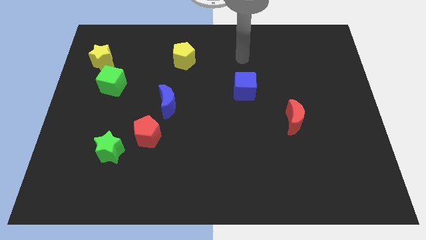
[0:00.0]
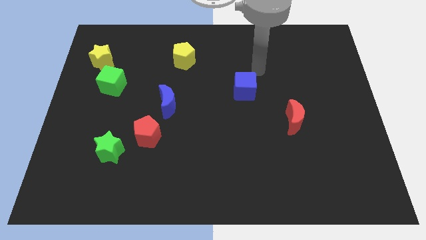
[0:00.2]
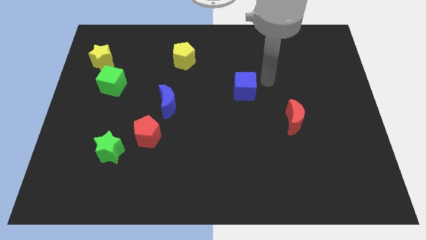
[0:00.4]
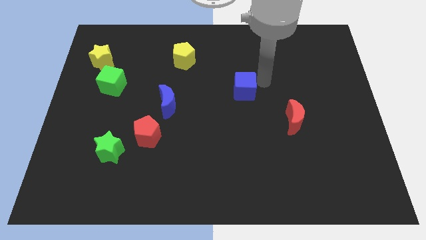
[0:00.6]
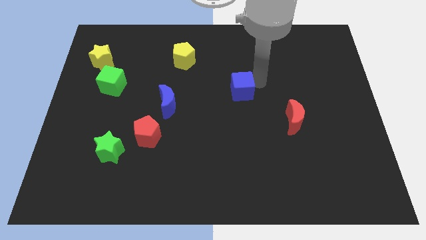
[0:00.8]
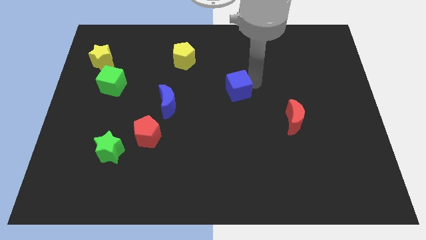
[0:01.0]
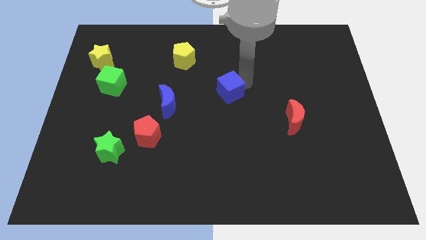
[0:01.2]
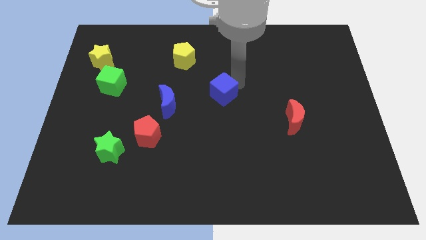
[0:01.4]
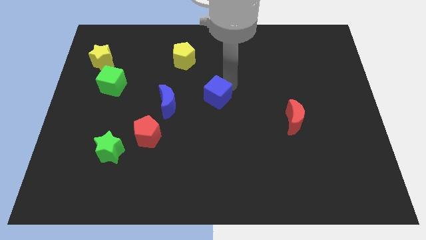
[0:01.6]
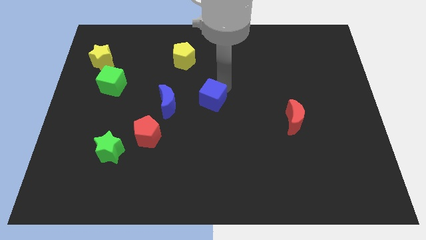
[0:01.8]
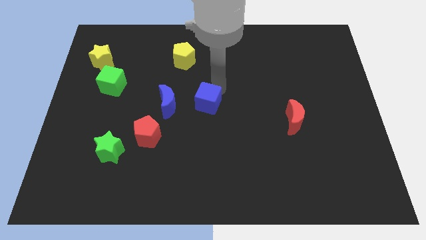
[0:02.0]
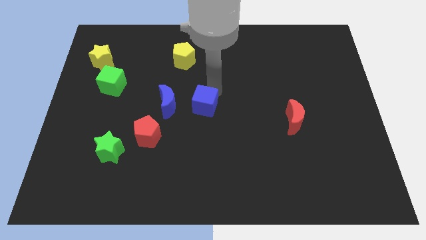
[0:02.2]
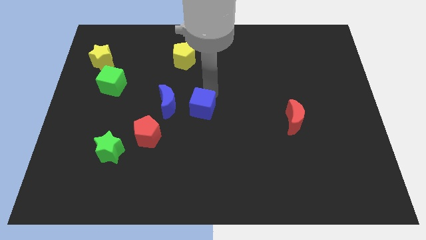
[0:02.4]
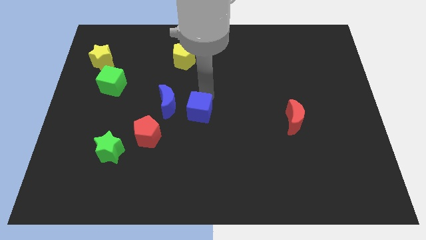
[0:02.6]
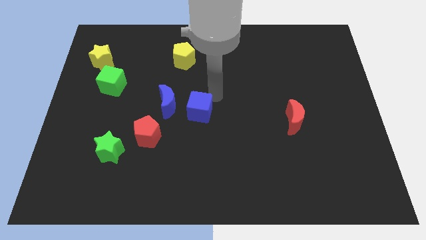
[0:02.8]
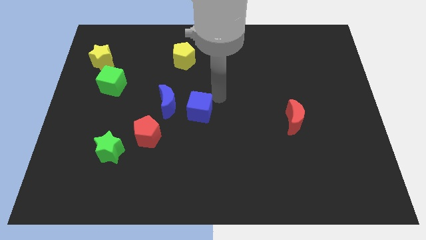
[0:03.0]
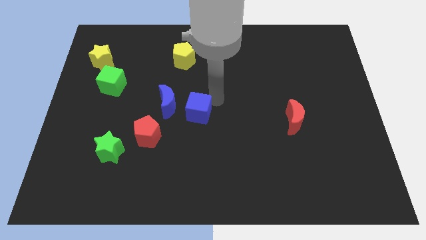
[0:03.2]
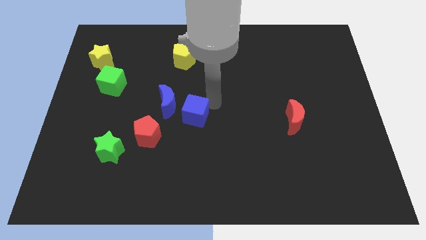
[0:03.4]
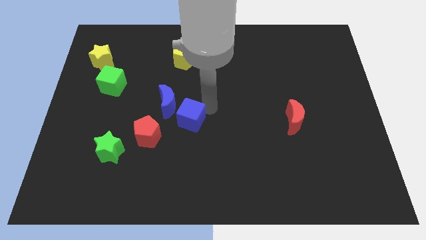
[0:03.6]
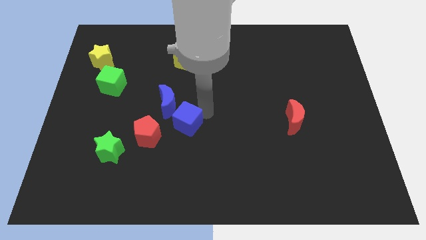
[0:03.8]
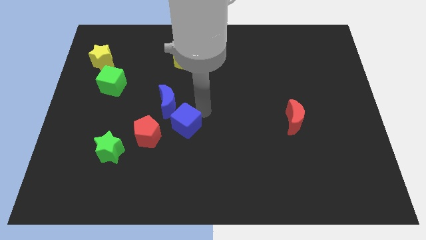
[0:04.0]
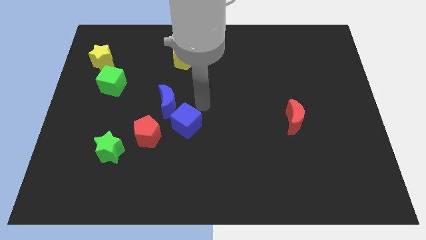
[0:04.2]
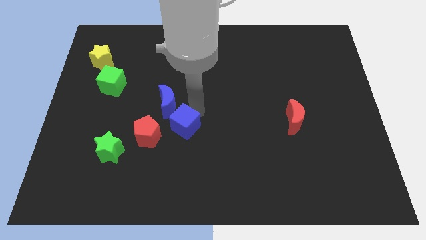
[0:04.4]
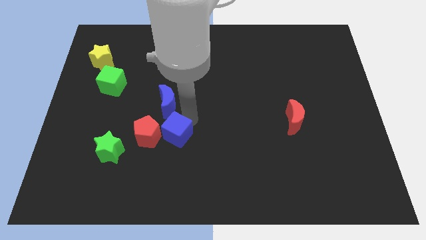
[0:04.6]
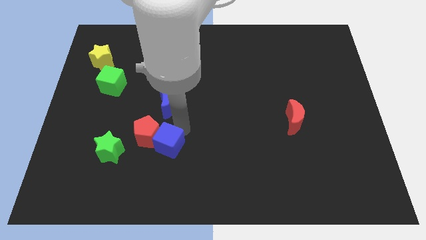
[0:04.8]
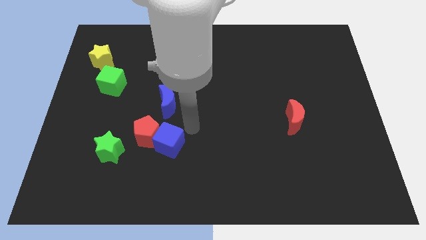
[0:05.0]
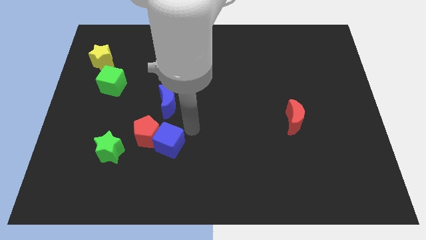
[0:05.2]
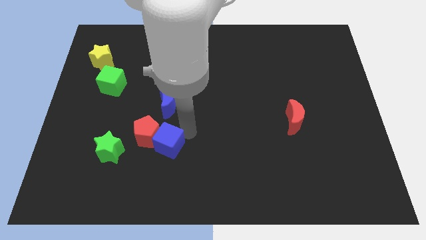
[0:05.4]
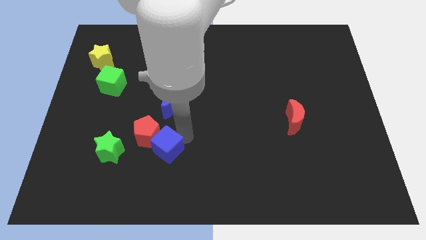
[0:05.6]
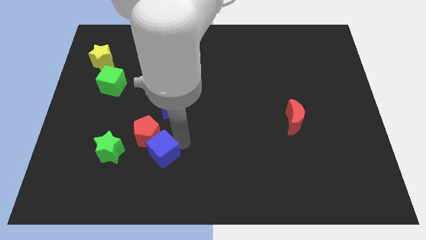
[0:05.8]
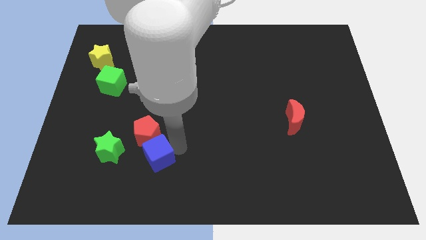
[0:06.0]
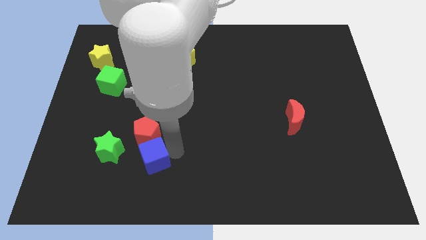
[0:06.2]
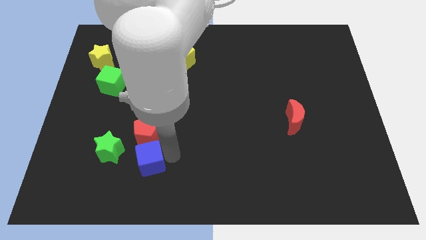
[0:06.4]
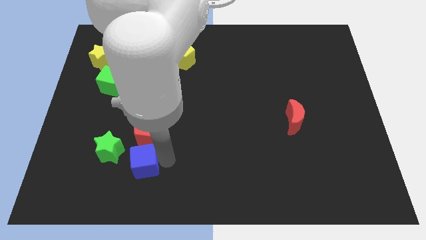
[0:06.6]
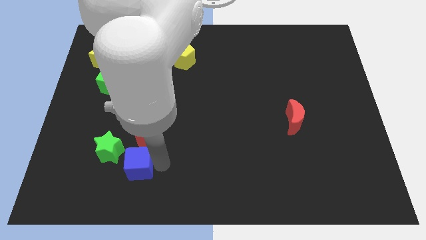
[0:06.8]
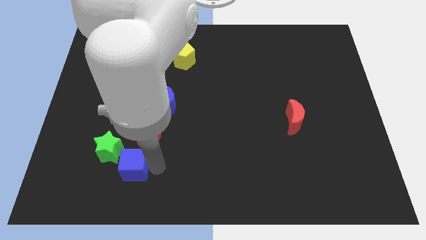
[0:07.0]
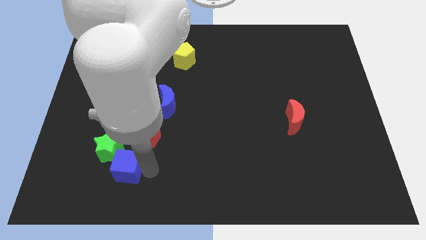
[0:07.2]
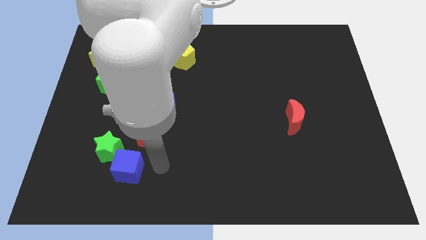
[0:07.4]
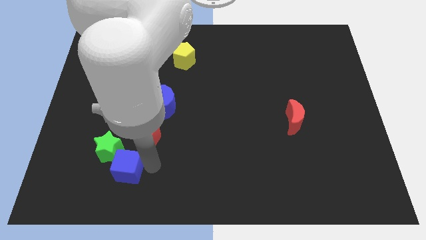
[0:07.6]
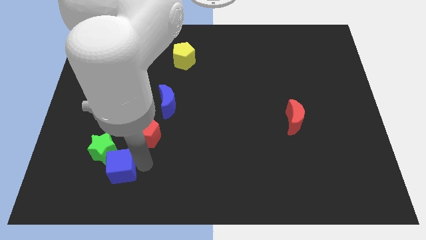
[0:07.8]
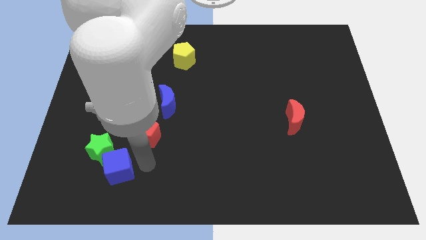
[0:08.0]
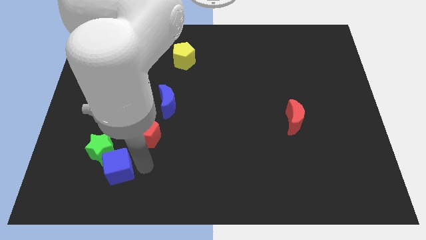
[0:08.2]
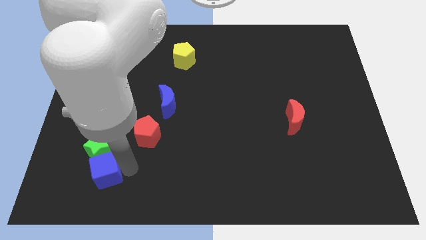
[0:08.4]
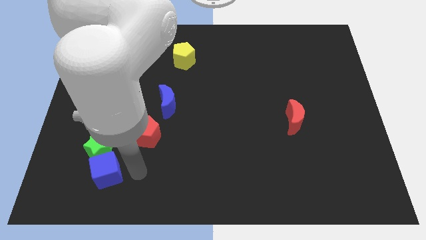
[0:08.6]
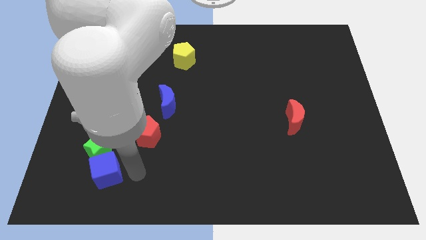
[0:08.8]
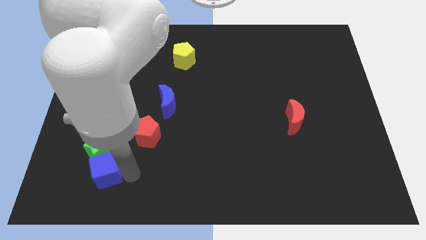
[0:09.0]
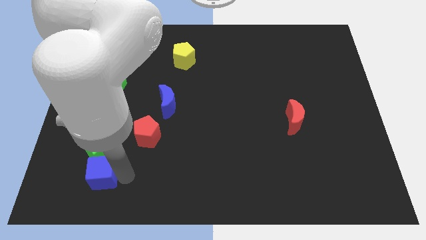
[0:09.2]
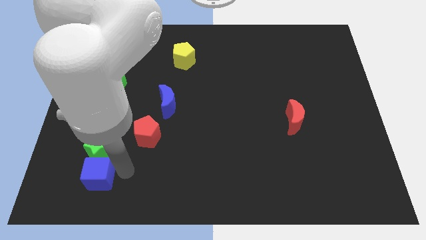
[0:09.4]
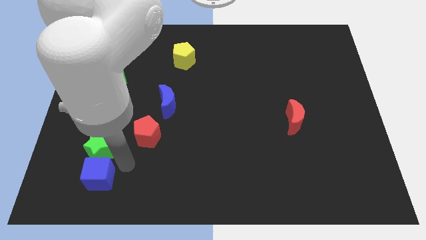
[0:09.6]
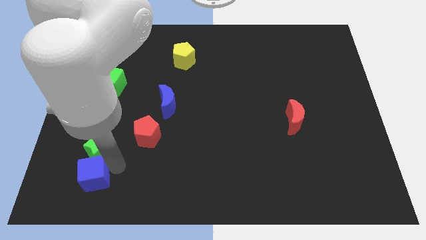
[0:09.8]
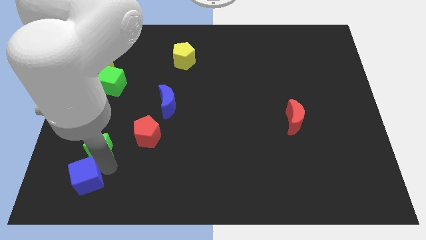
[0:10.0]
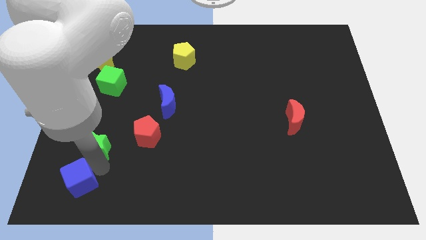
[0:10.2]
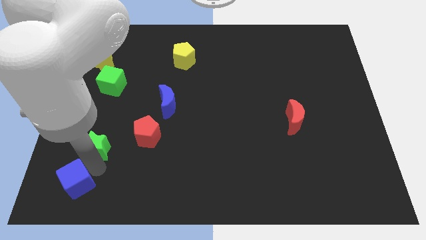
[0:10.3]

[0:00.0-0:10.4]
push the blue cube to the bottom left
